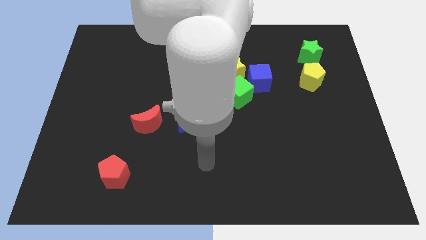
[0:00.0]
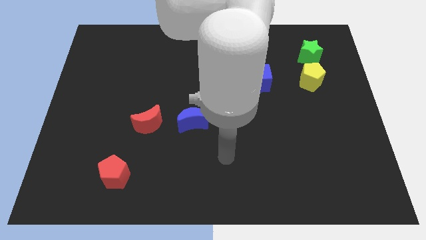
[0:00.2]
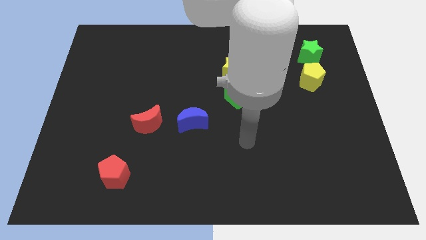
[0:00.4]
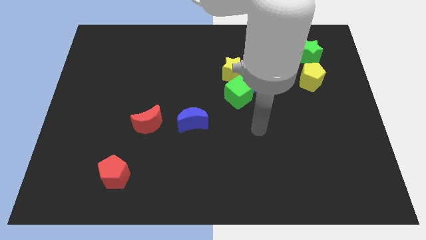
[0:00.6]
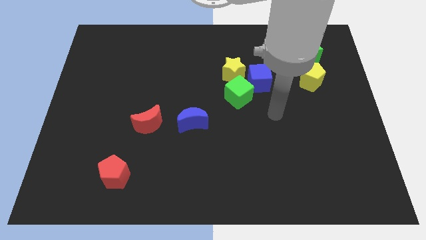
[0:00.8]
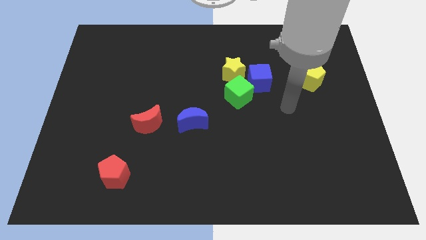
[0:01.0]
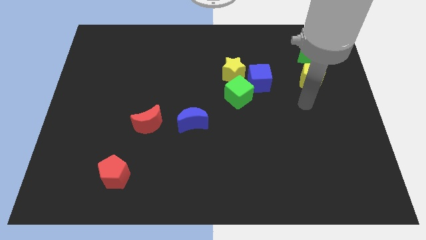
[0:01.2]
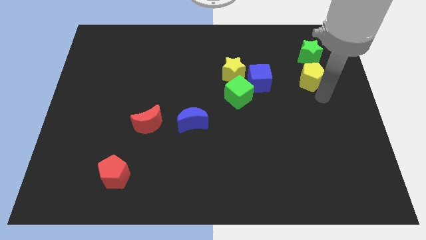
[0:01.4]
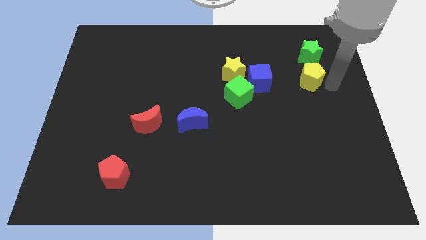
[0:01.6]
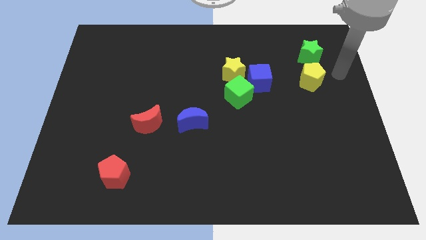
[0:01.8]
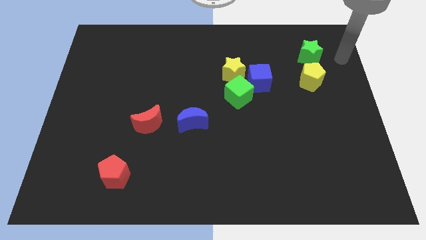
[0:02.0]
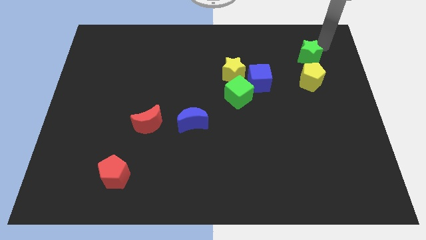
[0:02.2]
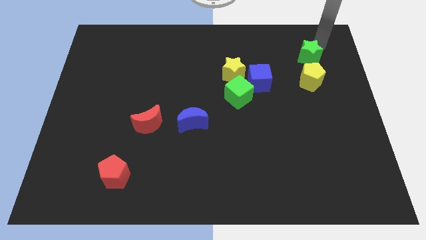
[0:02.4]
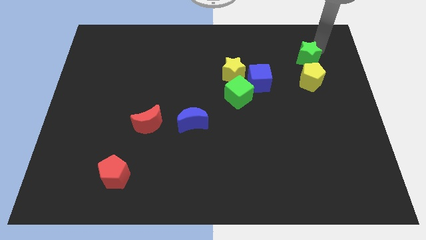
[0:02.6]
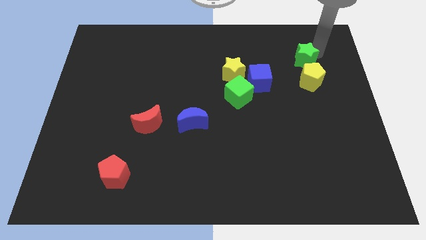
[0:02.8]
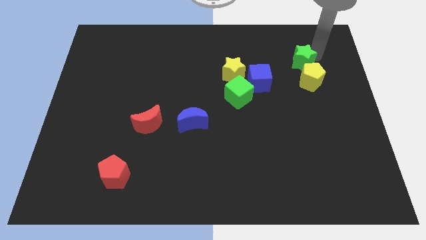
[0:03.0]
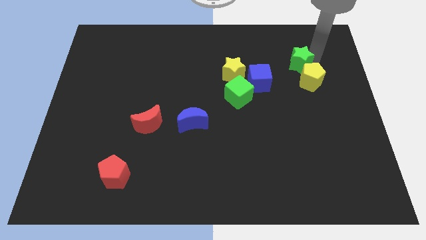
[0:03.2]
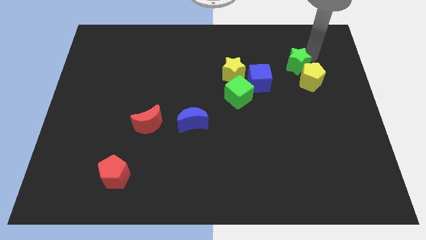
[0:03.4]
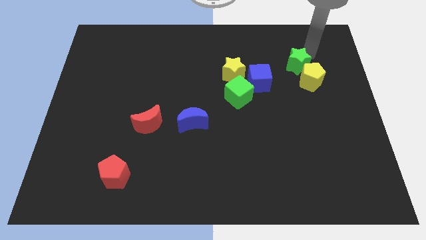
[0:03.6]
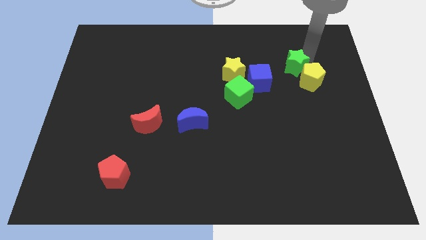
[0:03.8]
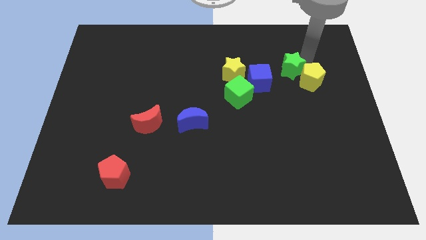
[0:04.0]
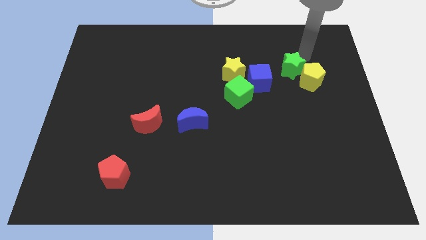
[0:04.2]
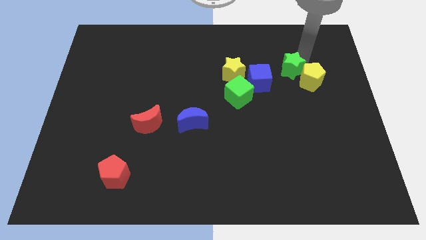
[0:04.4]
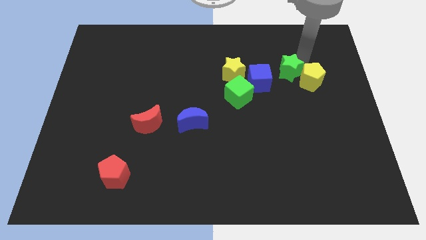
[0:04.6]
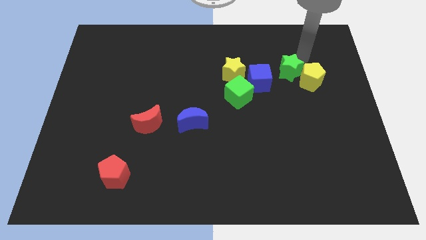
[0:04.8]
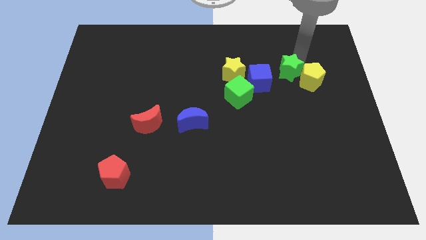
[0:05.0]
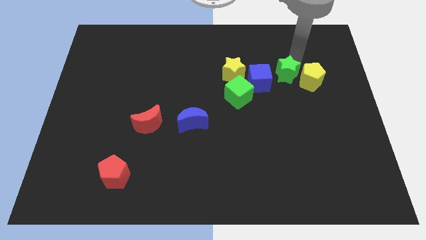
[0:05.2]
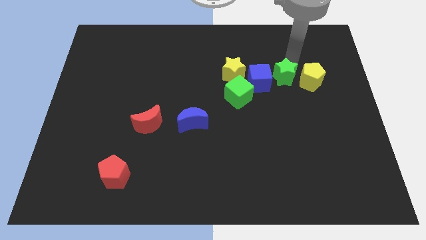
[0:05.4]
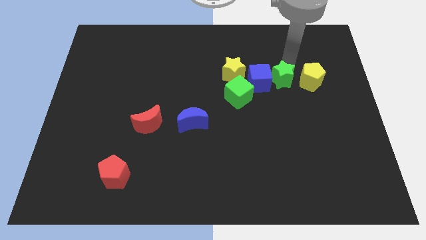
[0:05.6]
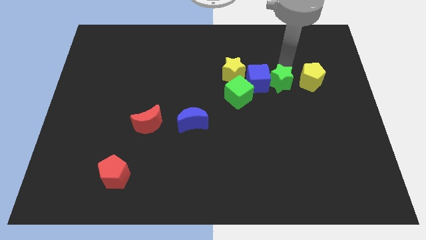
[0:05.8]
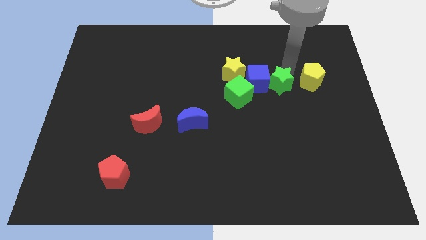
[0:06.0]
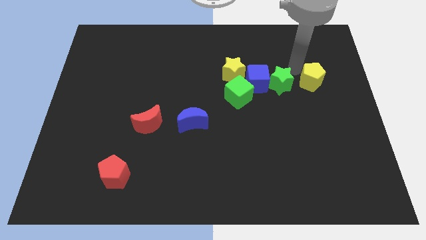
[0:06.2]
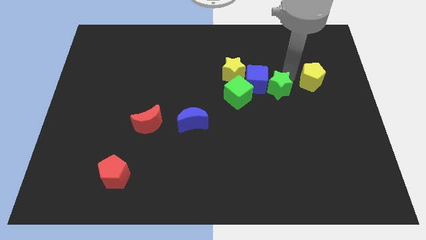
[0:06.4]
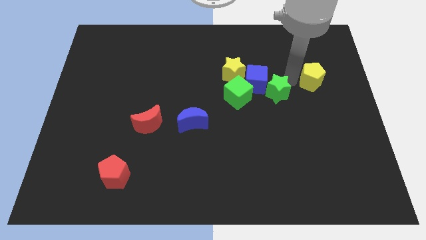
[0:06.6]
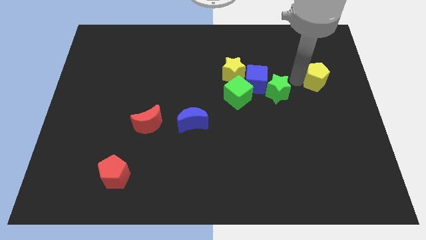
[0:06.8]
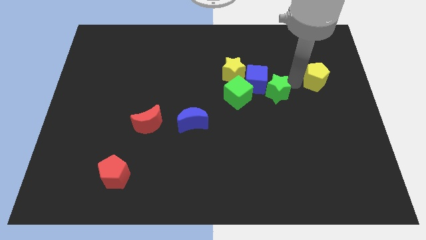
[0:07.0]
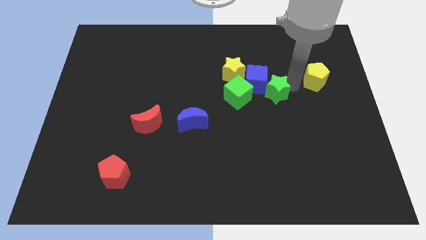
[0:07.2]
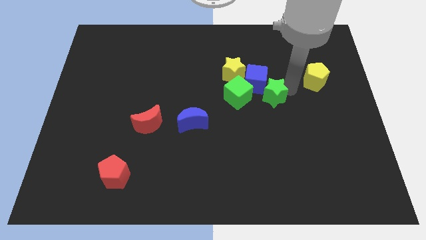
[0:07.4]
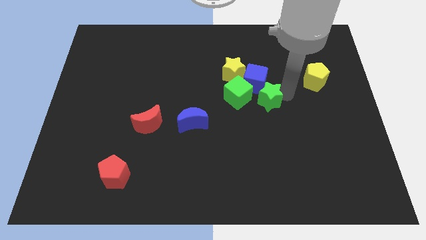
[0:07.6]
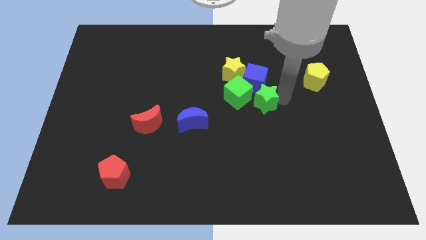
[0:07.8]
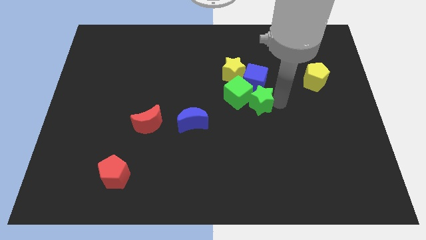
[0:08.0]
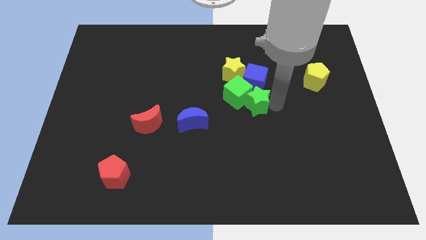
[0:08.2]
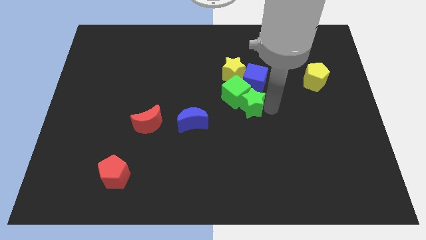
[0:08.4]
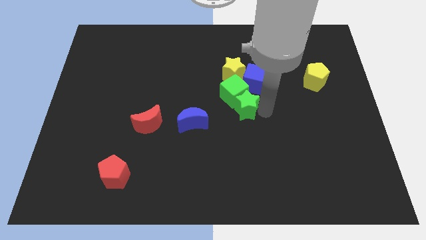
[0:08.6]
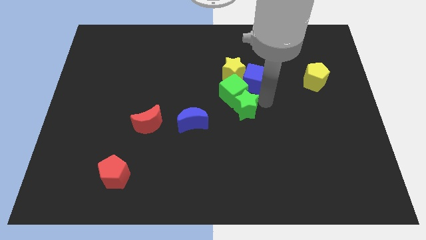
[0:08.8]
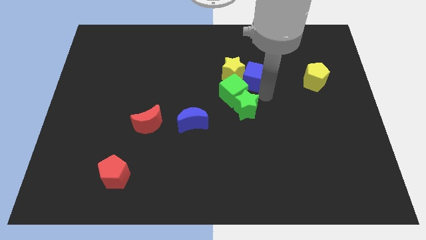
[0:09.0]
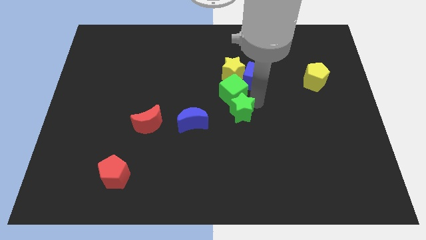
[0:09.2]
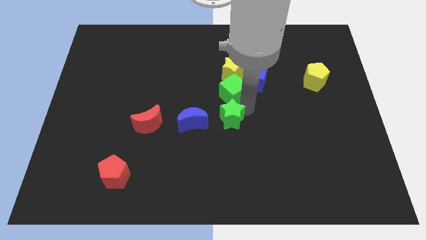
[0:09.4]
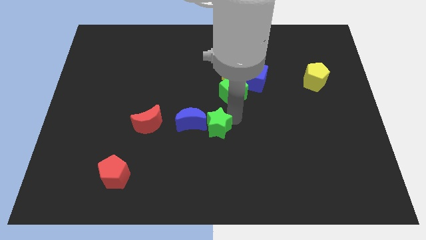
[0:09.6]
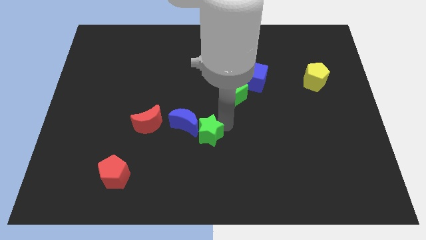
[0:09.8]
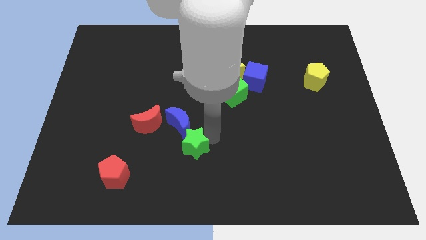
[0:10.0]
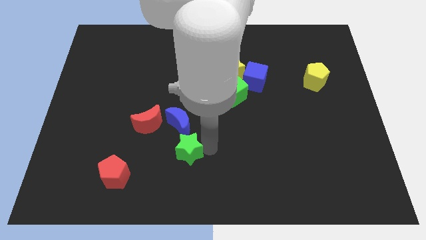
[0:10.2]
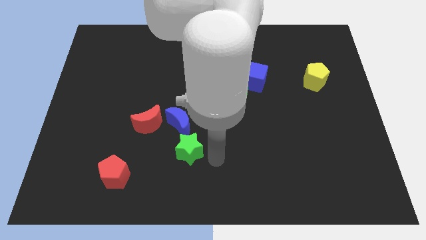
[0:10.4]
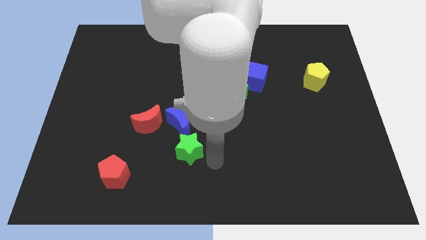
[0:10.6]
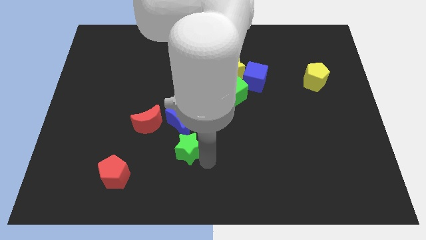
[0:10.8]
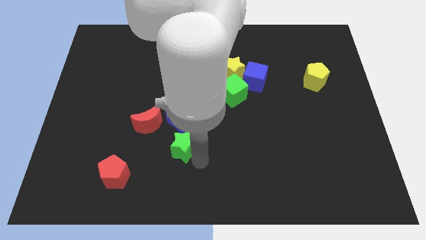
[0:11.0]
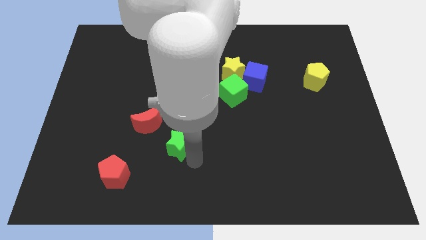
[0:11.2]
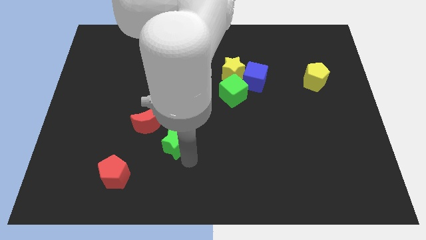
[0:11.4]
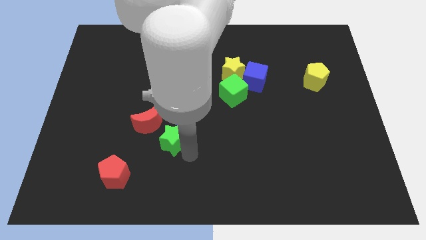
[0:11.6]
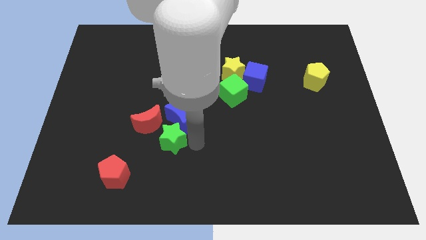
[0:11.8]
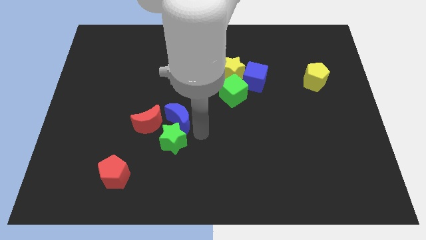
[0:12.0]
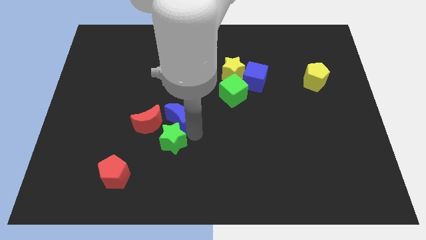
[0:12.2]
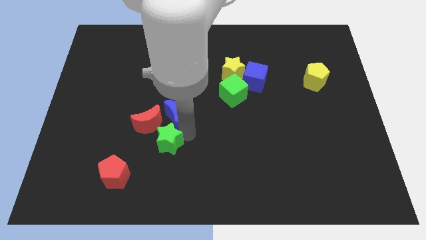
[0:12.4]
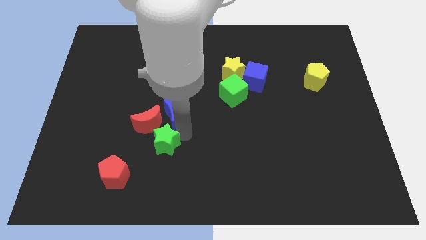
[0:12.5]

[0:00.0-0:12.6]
push the green star to the top right of the red pentagon

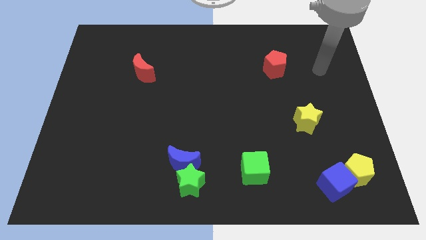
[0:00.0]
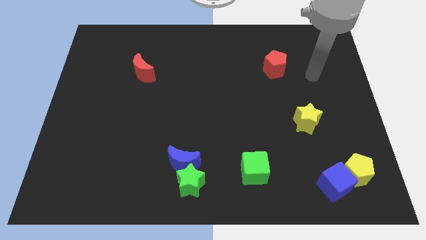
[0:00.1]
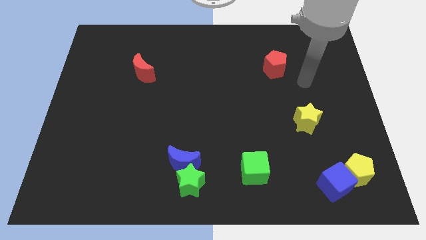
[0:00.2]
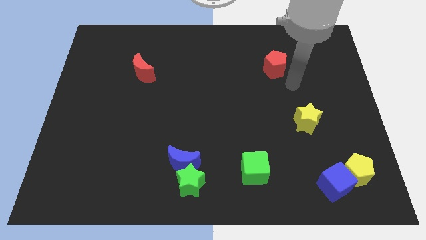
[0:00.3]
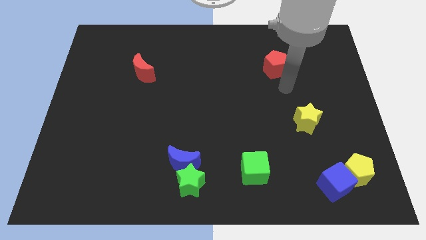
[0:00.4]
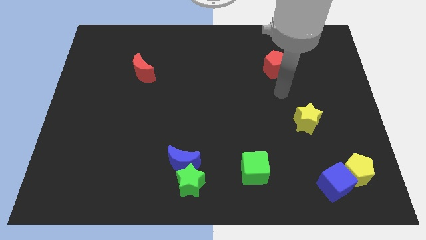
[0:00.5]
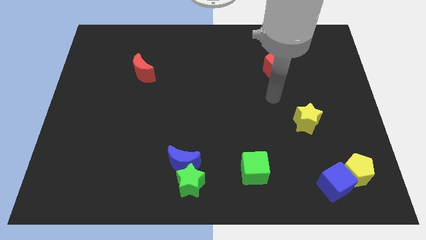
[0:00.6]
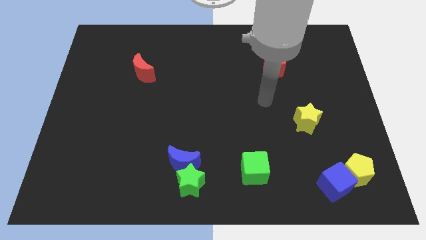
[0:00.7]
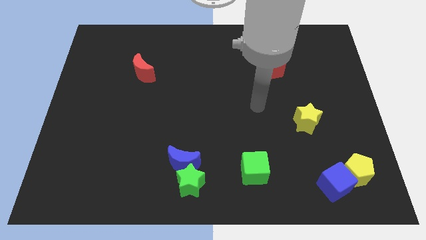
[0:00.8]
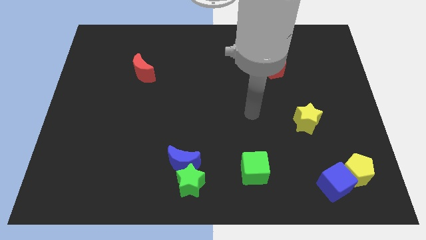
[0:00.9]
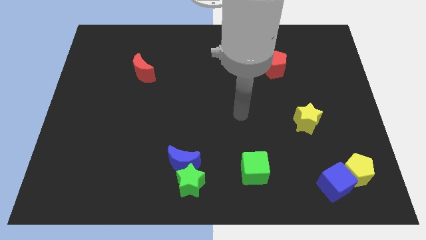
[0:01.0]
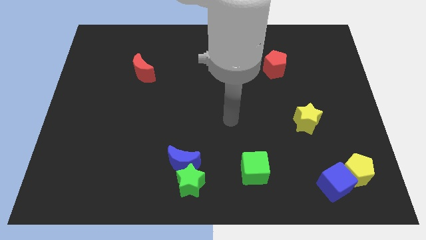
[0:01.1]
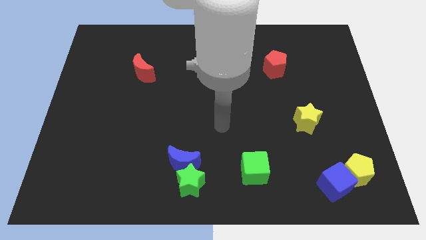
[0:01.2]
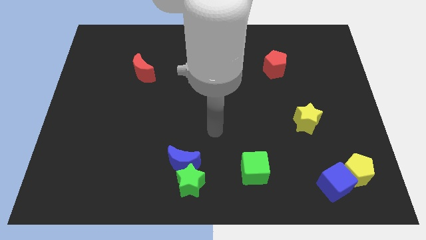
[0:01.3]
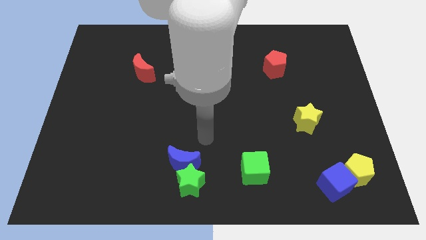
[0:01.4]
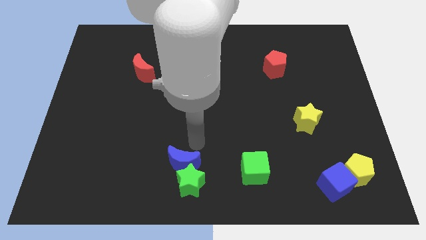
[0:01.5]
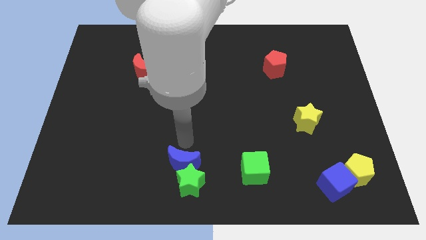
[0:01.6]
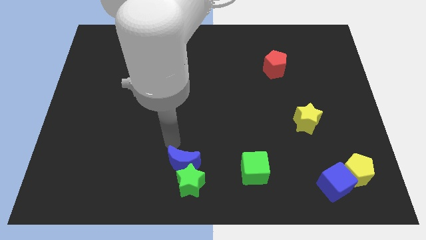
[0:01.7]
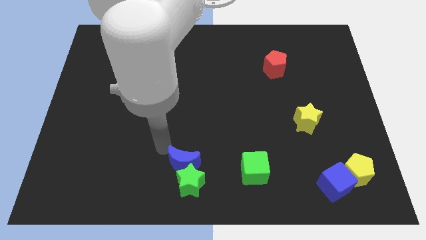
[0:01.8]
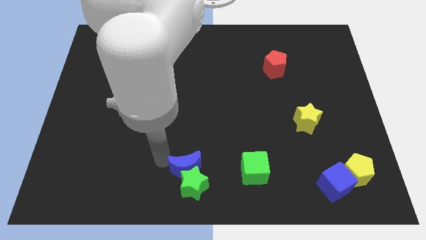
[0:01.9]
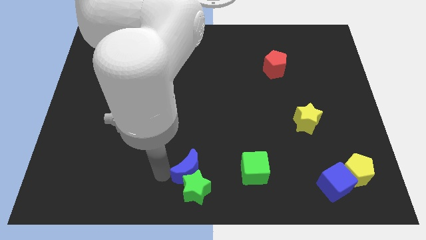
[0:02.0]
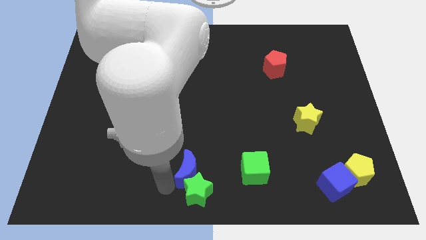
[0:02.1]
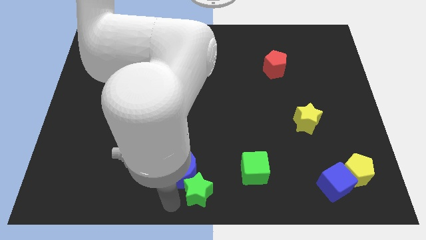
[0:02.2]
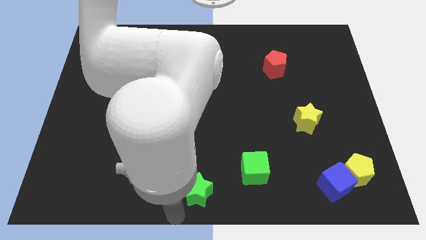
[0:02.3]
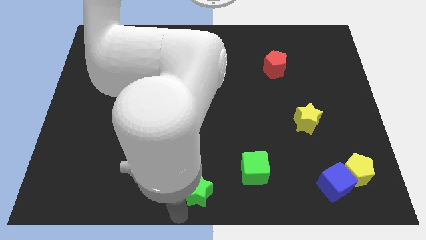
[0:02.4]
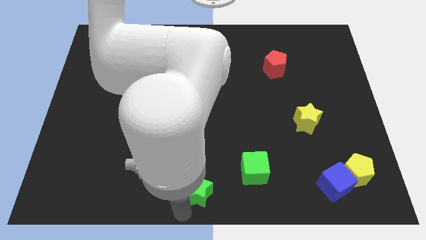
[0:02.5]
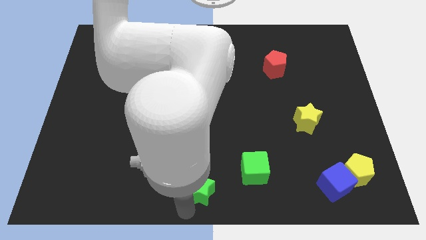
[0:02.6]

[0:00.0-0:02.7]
push the green star just right of the blue moon
